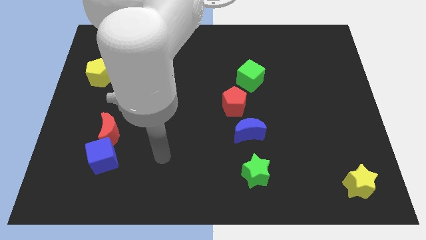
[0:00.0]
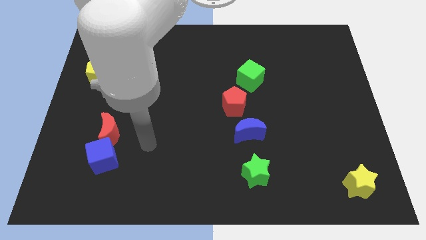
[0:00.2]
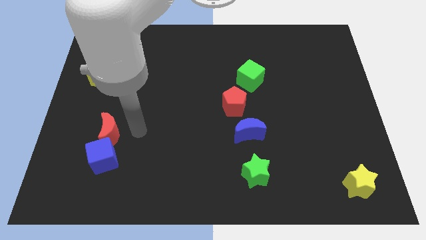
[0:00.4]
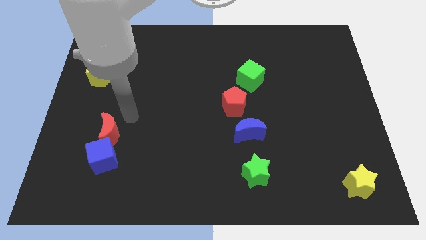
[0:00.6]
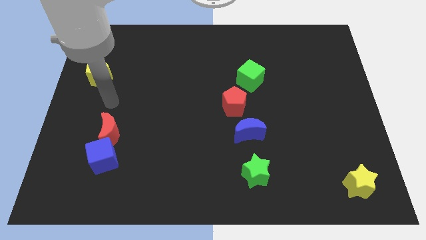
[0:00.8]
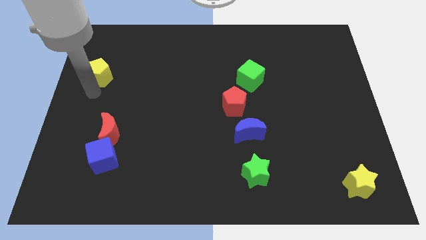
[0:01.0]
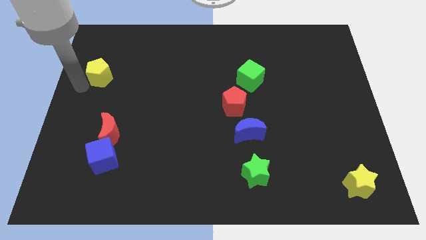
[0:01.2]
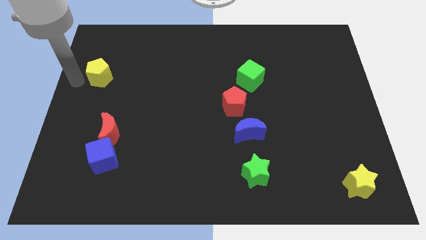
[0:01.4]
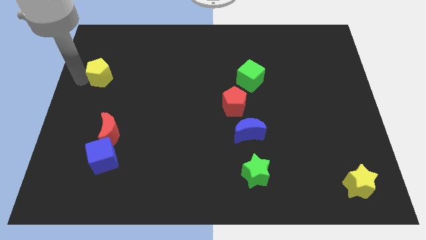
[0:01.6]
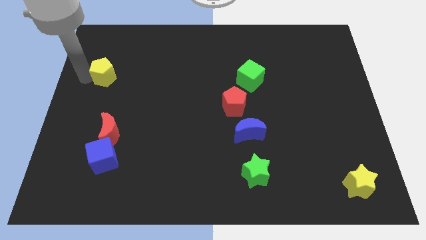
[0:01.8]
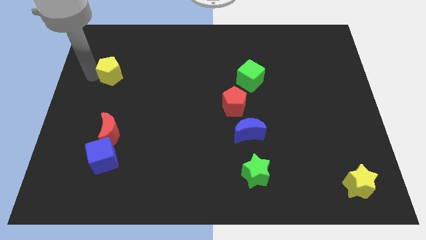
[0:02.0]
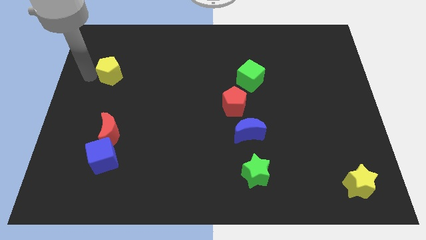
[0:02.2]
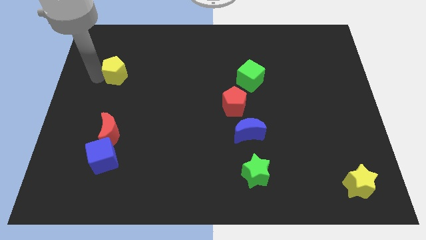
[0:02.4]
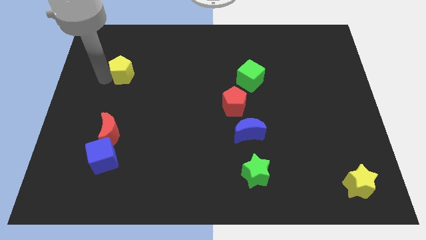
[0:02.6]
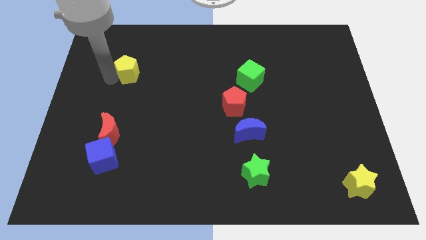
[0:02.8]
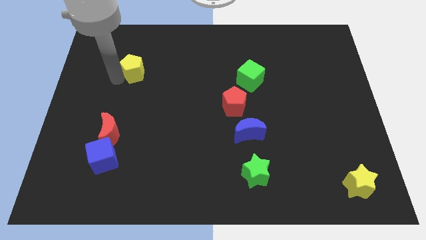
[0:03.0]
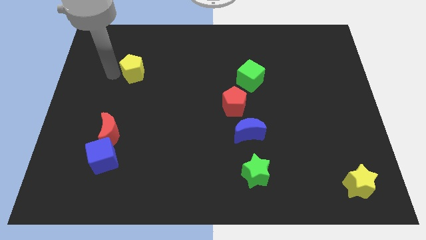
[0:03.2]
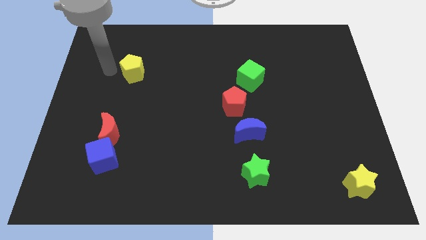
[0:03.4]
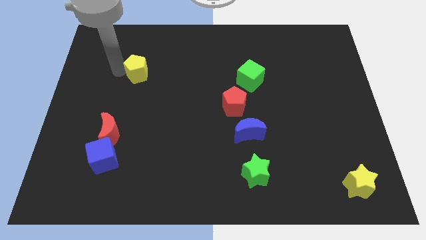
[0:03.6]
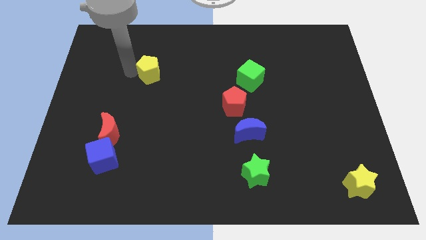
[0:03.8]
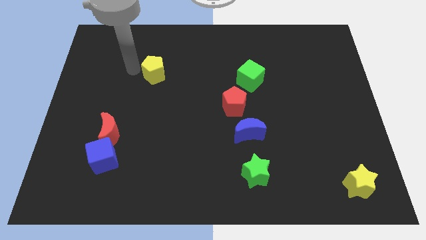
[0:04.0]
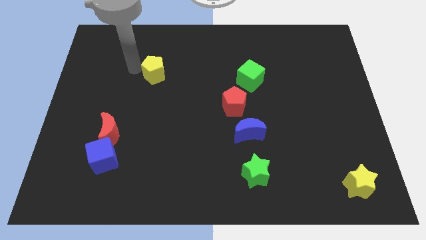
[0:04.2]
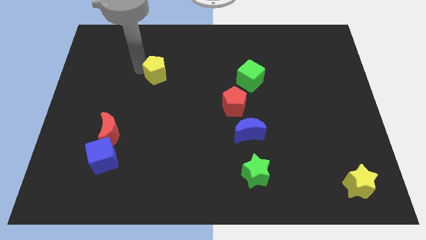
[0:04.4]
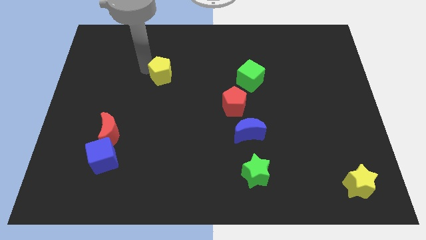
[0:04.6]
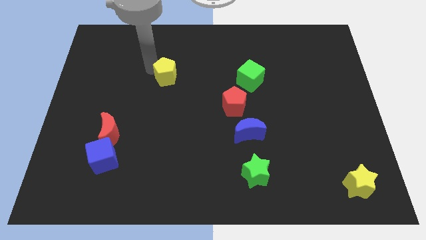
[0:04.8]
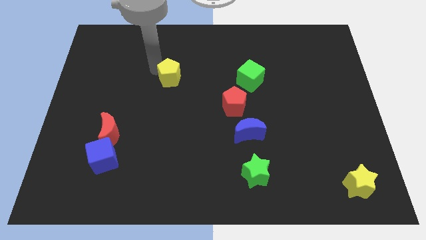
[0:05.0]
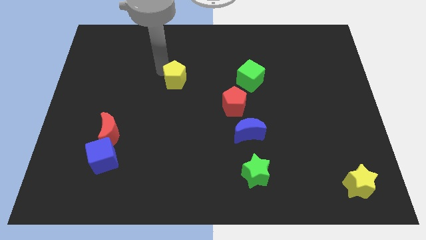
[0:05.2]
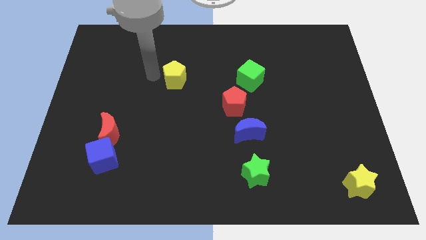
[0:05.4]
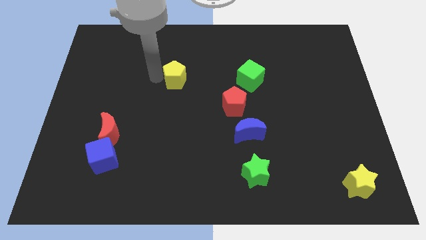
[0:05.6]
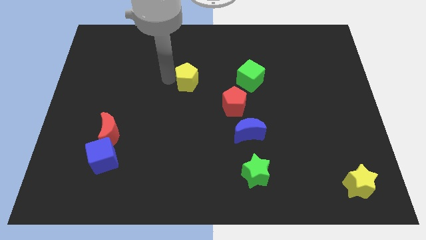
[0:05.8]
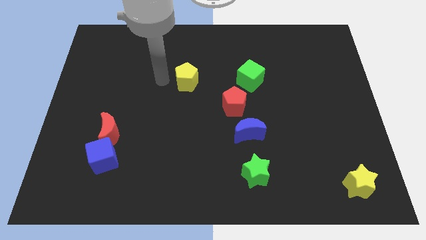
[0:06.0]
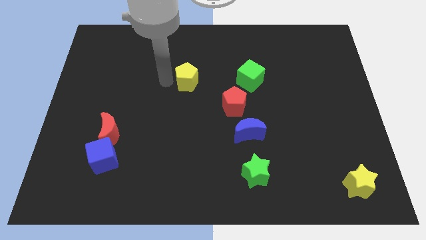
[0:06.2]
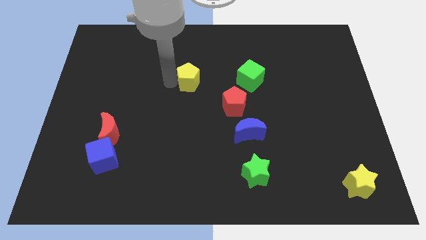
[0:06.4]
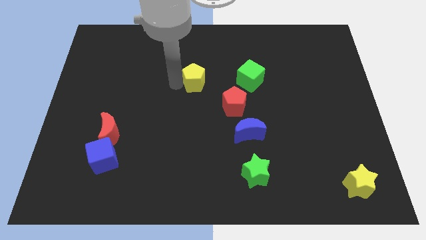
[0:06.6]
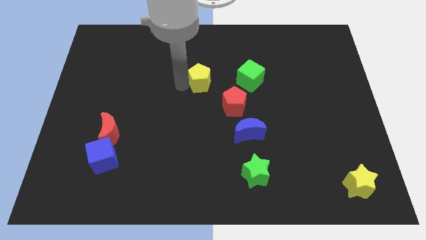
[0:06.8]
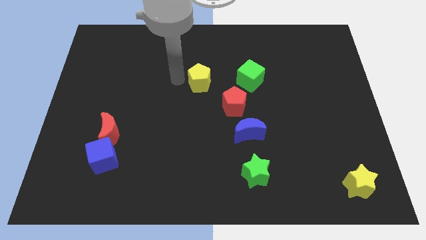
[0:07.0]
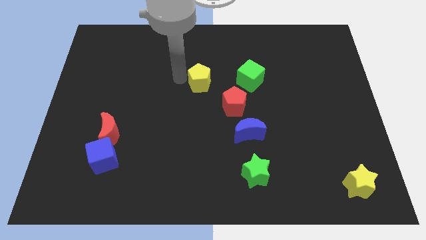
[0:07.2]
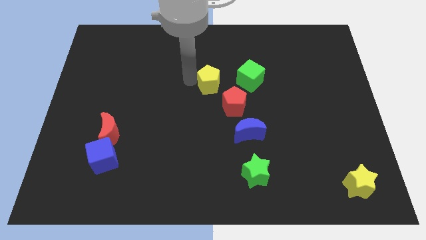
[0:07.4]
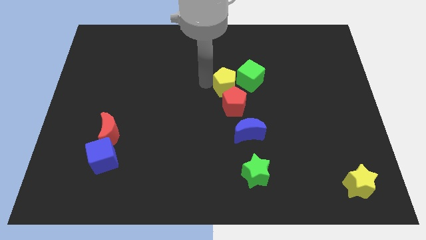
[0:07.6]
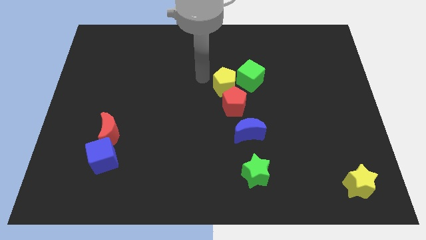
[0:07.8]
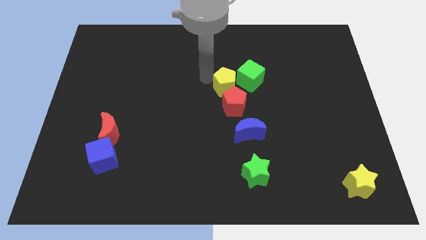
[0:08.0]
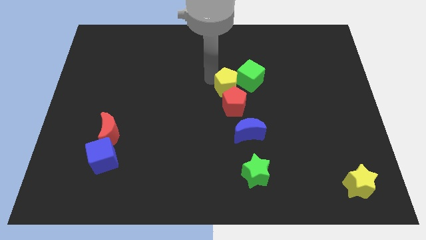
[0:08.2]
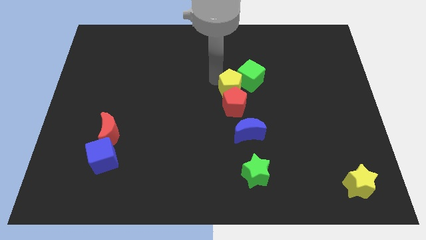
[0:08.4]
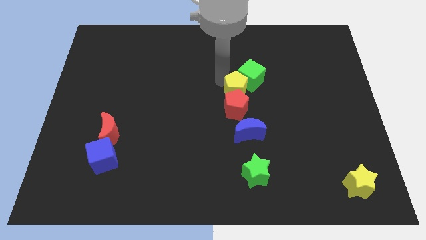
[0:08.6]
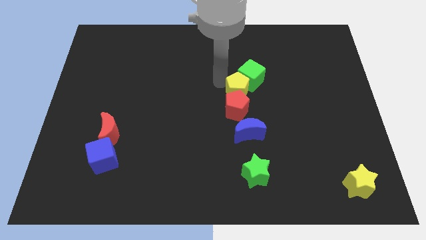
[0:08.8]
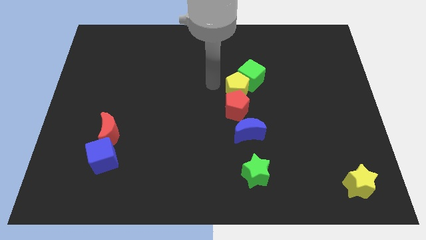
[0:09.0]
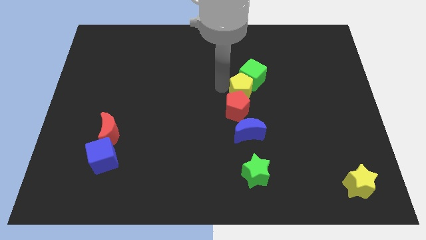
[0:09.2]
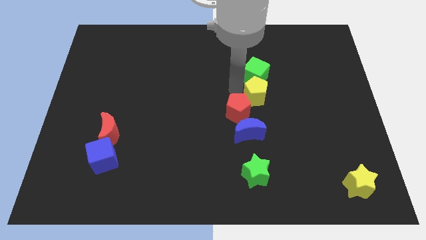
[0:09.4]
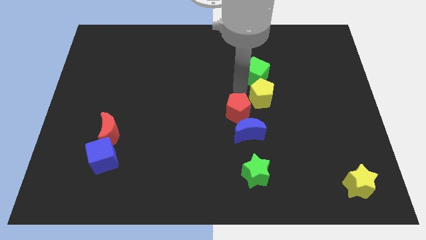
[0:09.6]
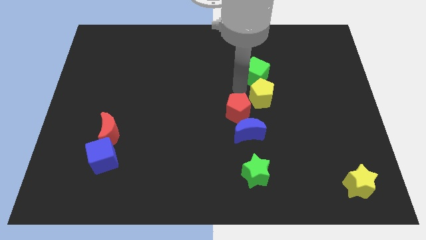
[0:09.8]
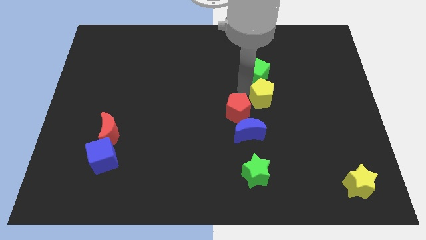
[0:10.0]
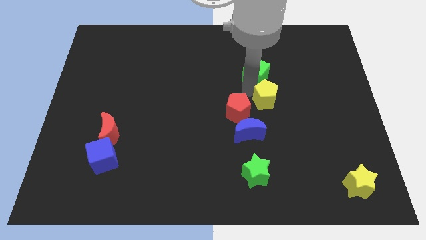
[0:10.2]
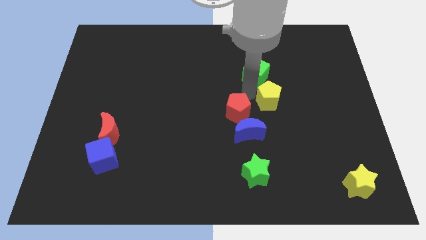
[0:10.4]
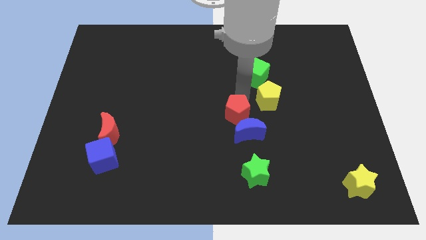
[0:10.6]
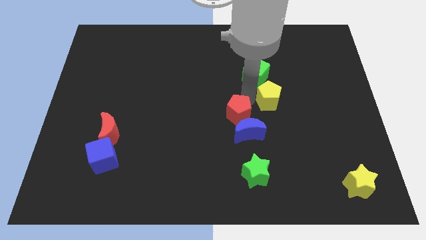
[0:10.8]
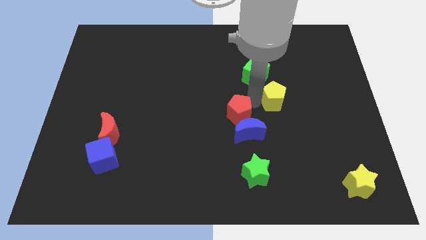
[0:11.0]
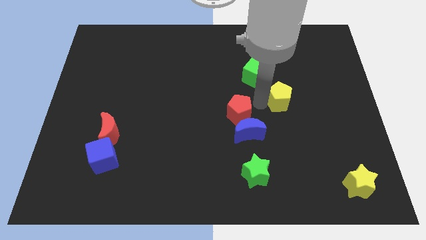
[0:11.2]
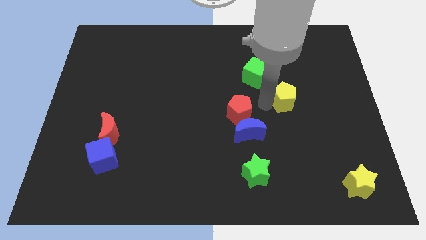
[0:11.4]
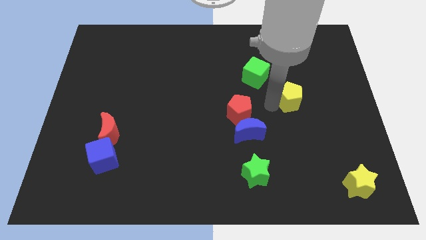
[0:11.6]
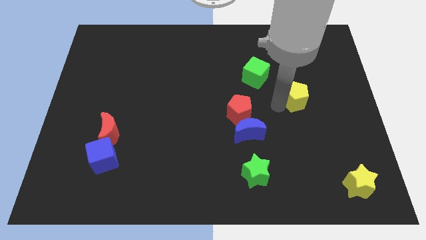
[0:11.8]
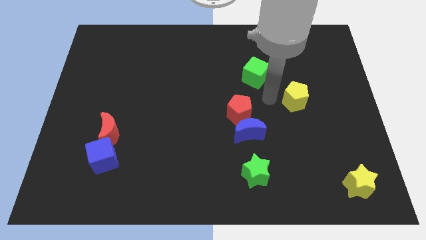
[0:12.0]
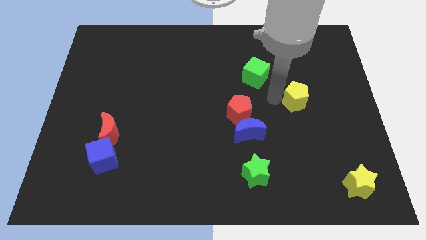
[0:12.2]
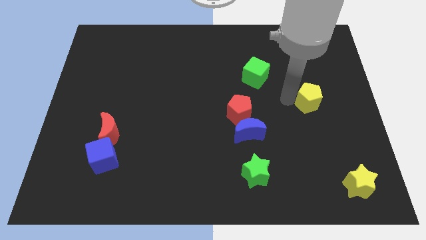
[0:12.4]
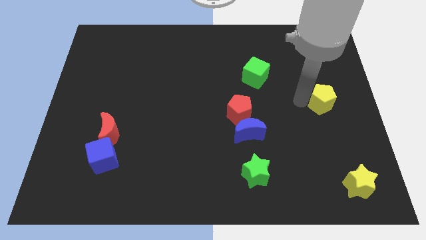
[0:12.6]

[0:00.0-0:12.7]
push the yellow pentagon to the right side of the board
